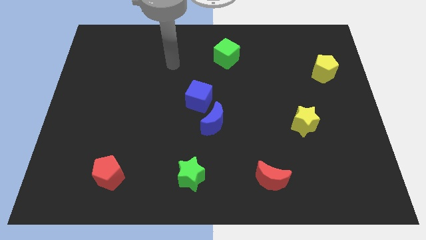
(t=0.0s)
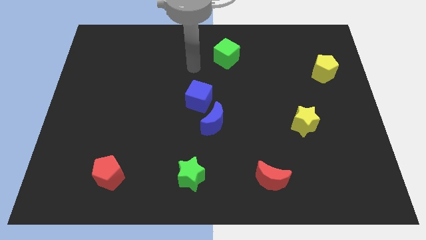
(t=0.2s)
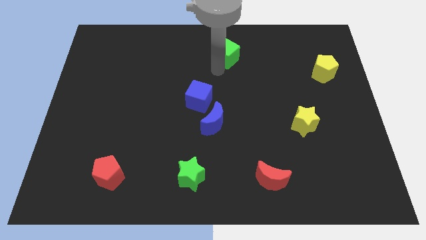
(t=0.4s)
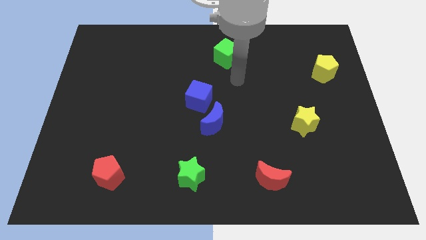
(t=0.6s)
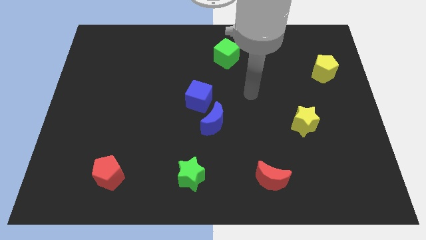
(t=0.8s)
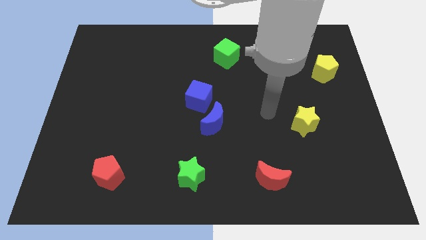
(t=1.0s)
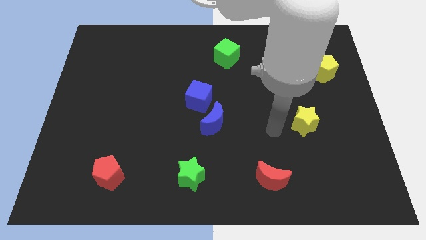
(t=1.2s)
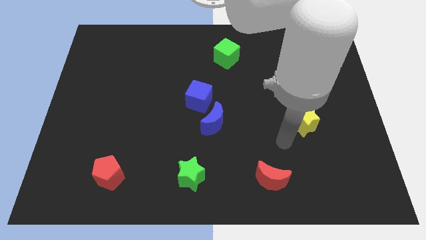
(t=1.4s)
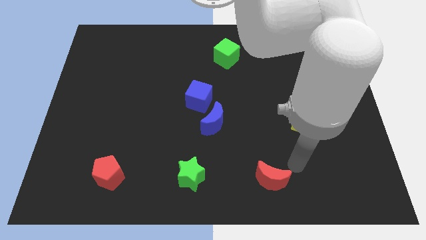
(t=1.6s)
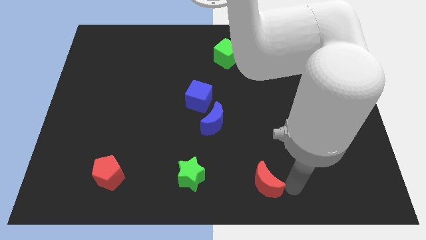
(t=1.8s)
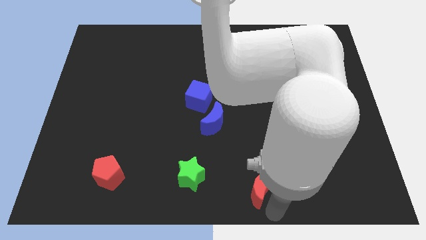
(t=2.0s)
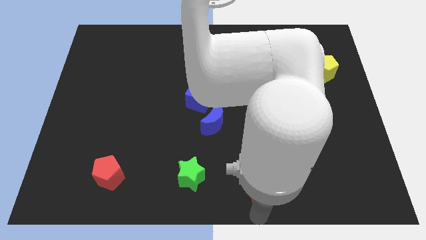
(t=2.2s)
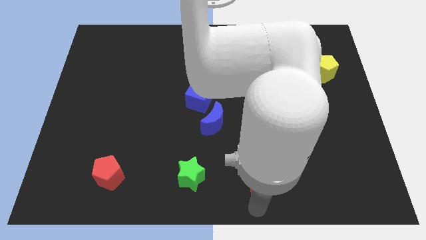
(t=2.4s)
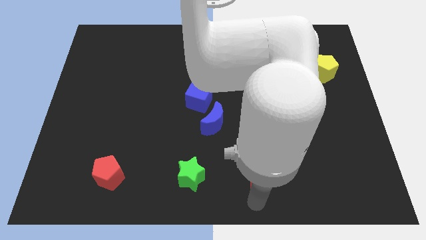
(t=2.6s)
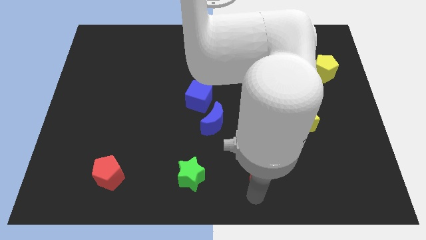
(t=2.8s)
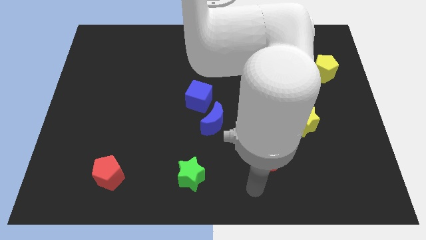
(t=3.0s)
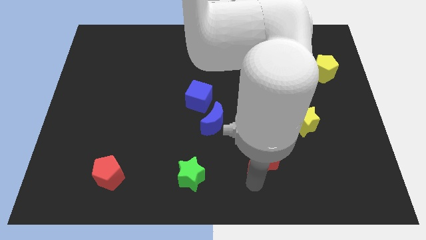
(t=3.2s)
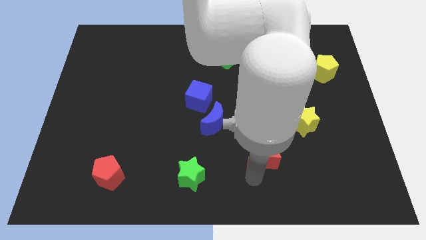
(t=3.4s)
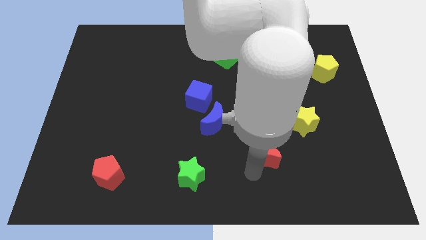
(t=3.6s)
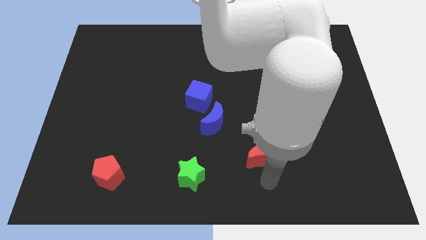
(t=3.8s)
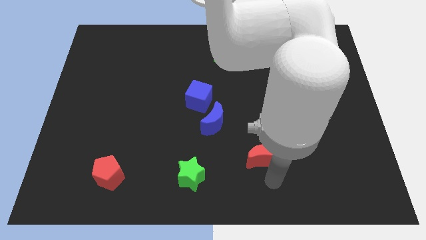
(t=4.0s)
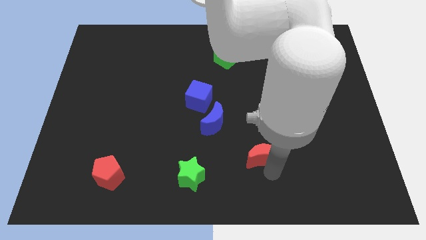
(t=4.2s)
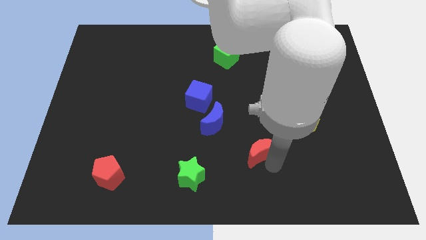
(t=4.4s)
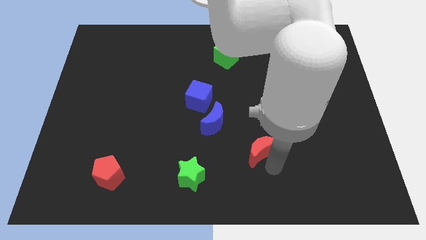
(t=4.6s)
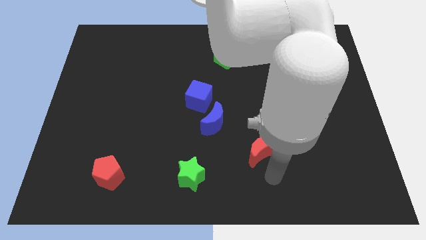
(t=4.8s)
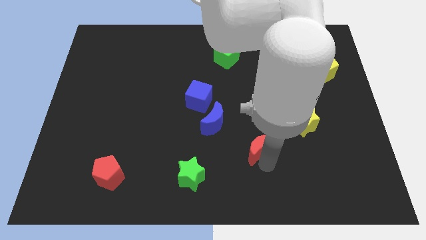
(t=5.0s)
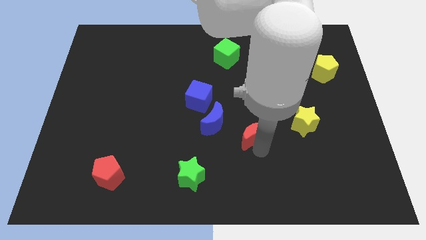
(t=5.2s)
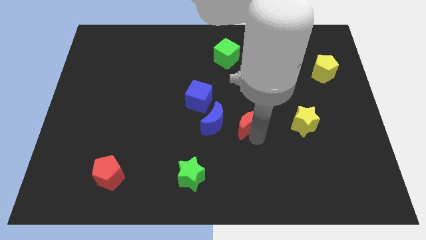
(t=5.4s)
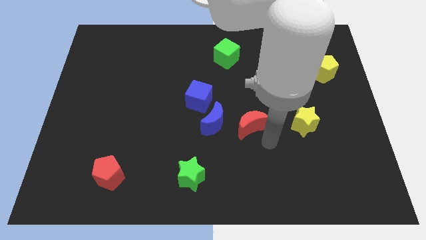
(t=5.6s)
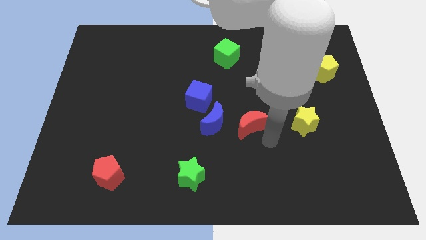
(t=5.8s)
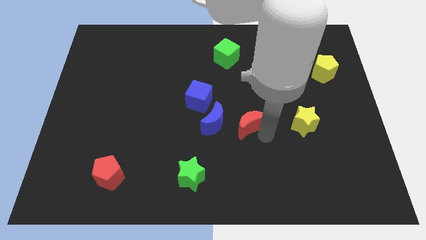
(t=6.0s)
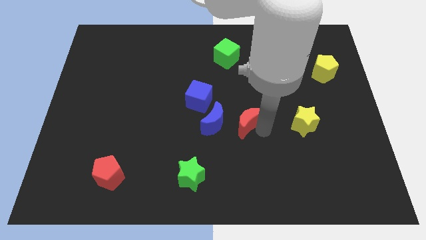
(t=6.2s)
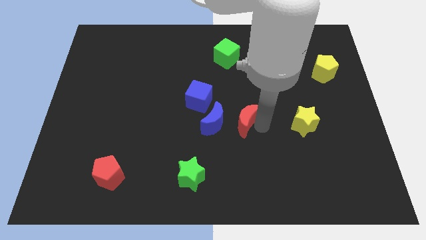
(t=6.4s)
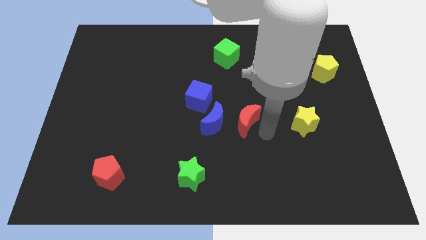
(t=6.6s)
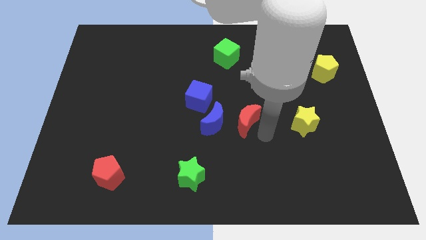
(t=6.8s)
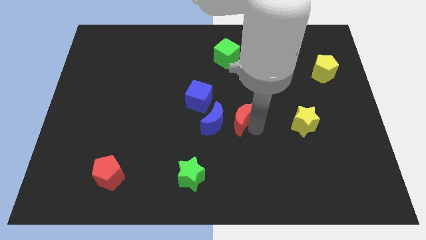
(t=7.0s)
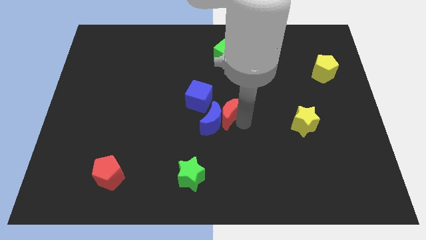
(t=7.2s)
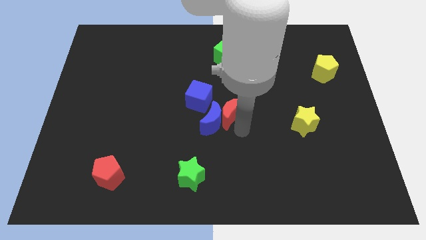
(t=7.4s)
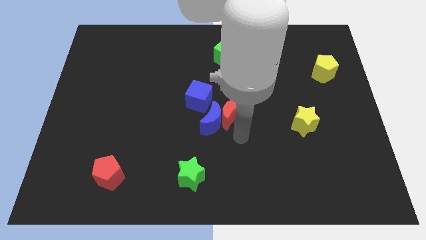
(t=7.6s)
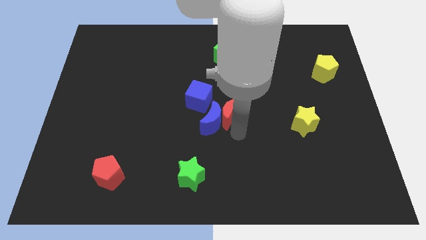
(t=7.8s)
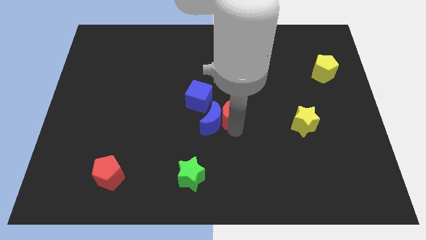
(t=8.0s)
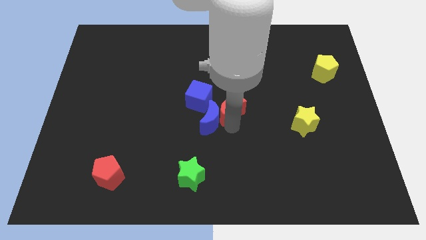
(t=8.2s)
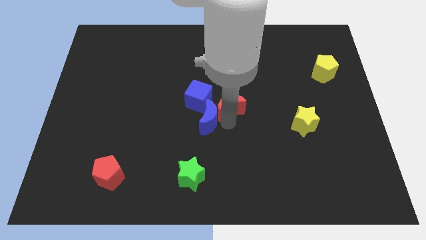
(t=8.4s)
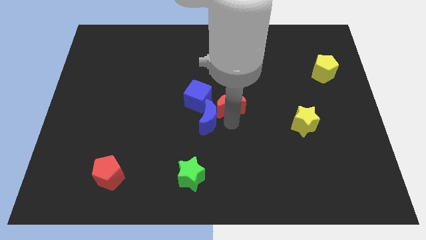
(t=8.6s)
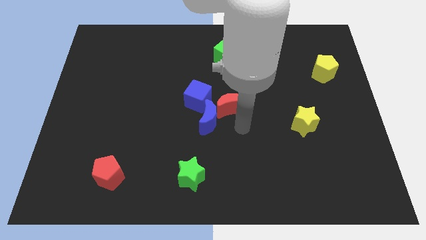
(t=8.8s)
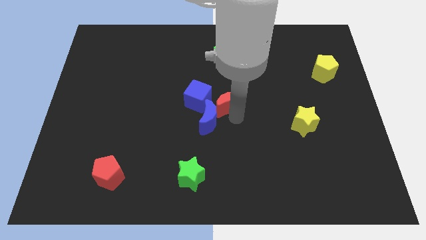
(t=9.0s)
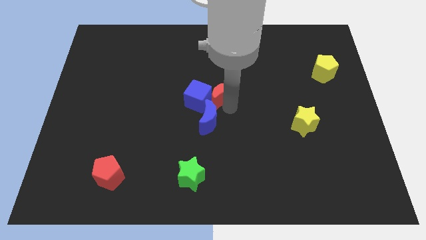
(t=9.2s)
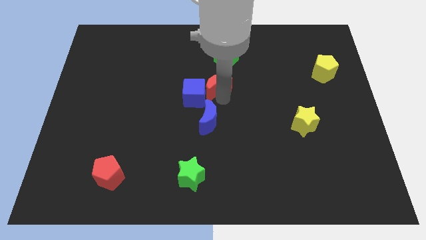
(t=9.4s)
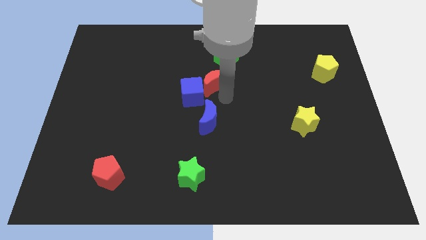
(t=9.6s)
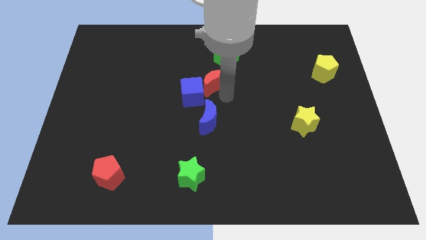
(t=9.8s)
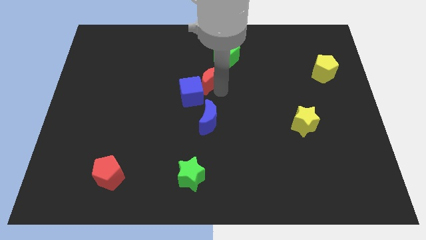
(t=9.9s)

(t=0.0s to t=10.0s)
put the red moon to the top of the blue cube

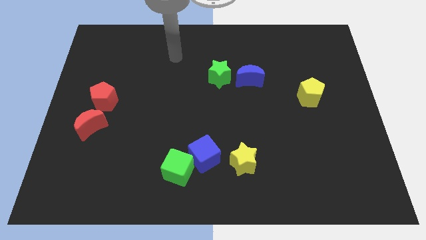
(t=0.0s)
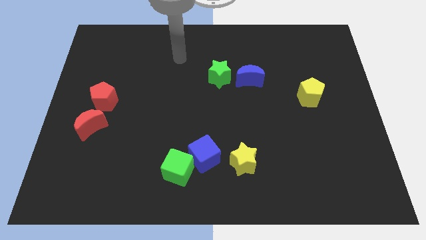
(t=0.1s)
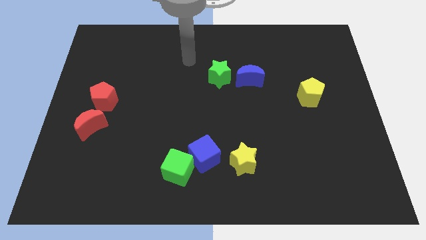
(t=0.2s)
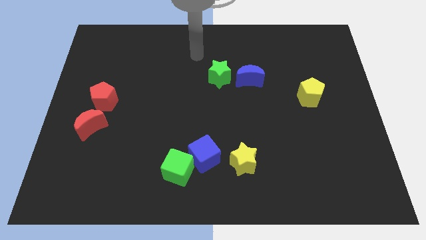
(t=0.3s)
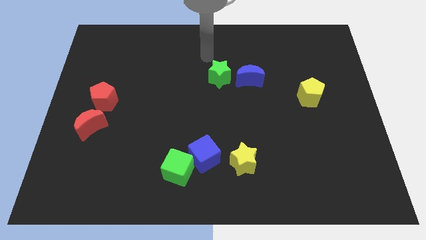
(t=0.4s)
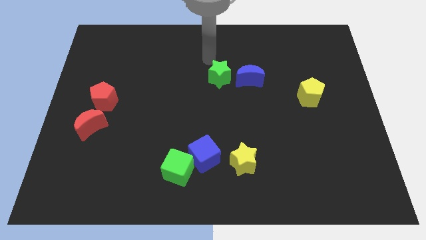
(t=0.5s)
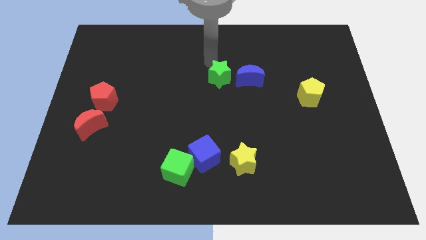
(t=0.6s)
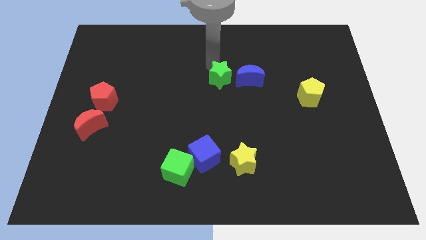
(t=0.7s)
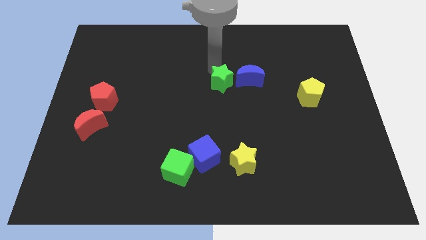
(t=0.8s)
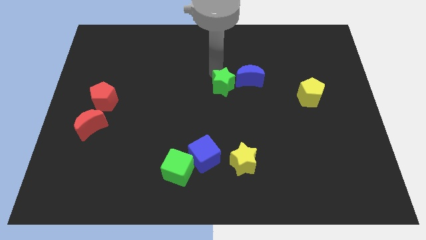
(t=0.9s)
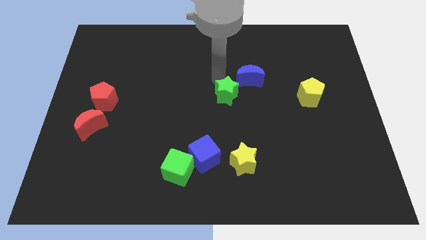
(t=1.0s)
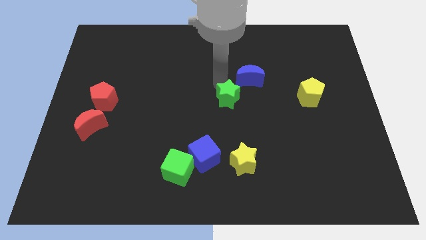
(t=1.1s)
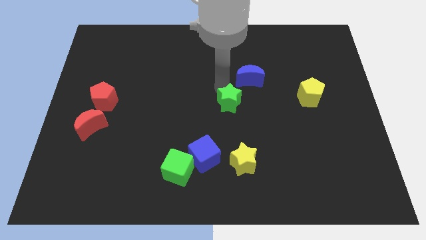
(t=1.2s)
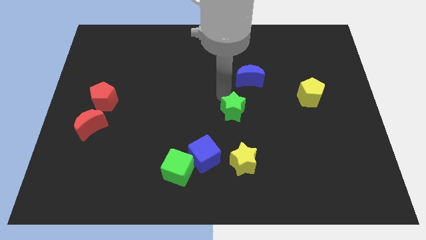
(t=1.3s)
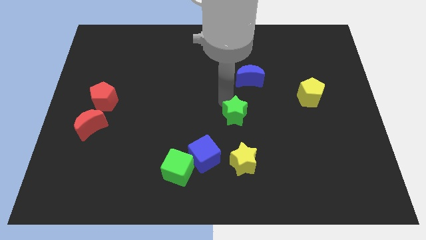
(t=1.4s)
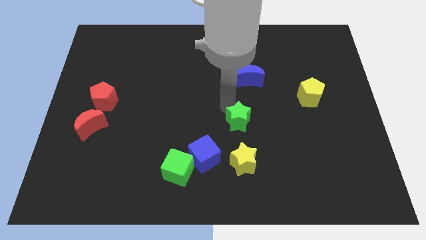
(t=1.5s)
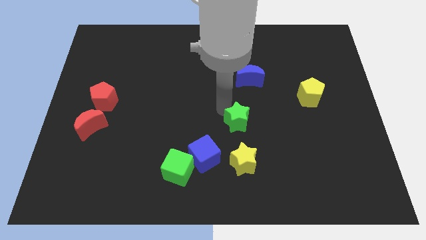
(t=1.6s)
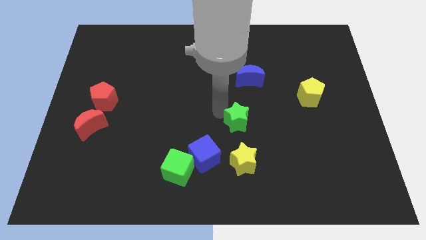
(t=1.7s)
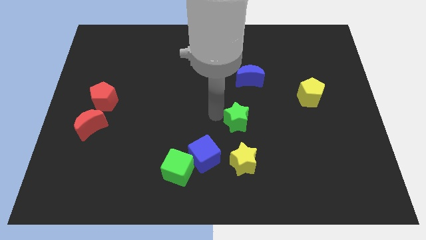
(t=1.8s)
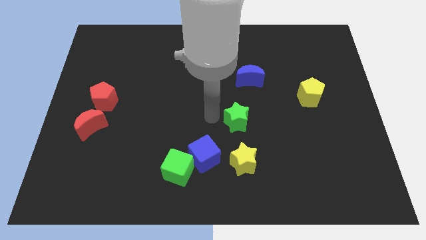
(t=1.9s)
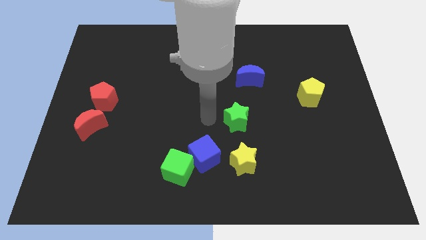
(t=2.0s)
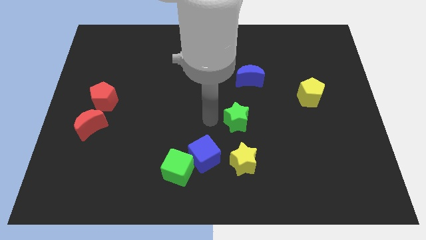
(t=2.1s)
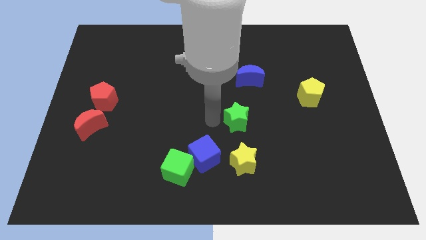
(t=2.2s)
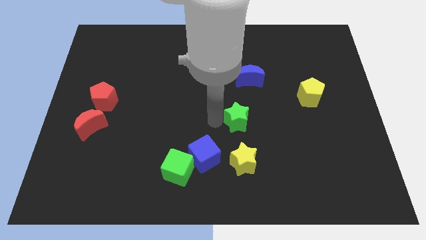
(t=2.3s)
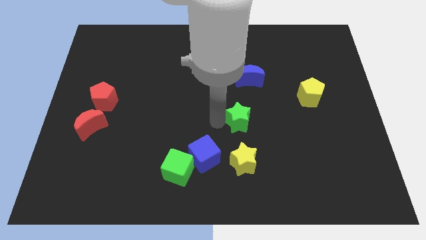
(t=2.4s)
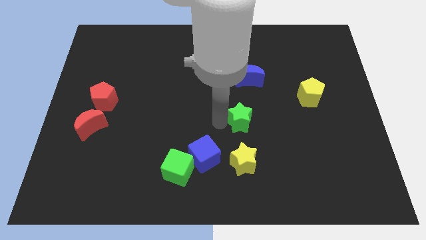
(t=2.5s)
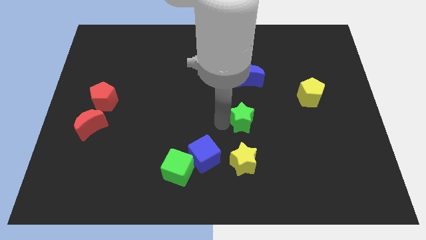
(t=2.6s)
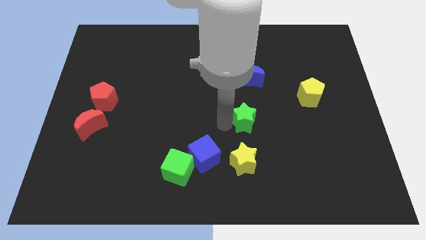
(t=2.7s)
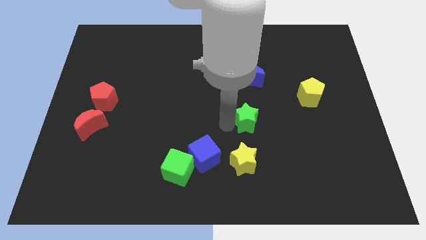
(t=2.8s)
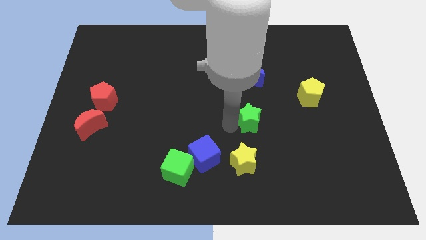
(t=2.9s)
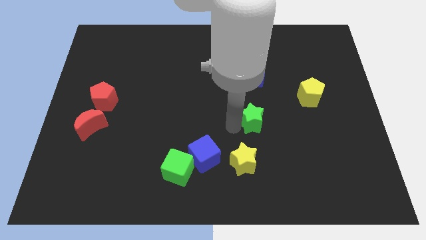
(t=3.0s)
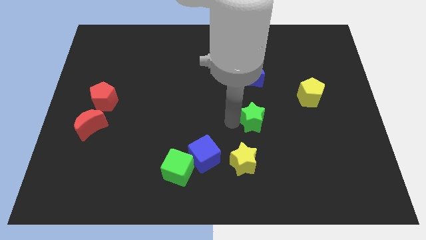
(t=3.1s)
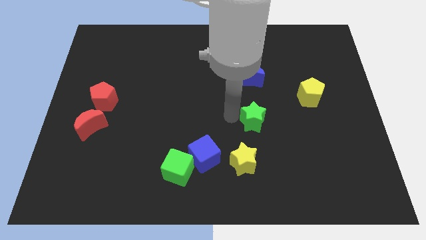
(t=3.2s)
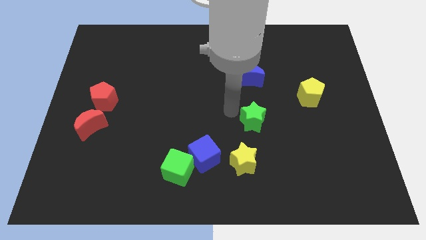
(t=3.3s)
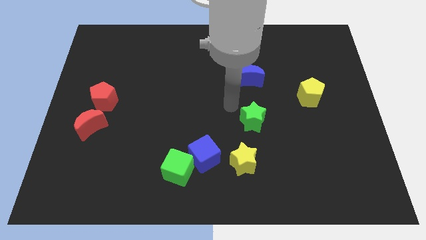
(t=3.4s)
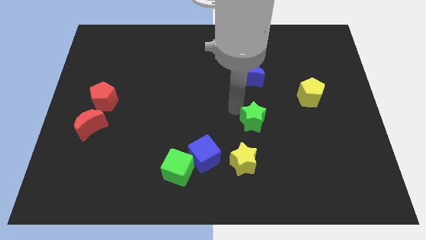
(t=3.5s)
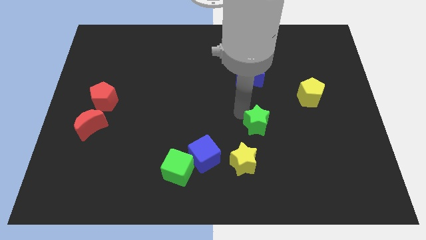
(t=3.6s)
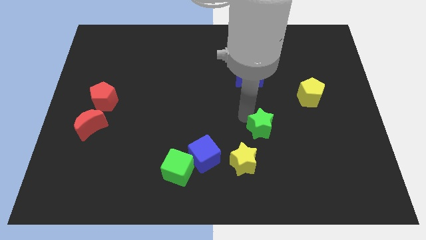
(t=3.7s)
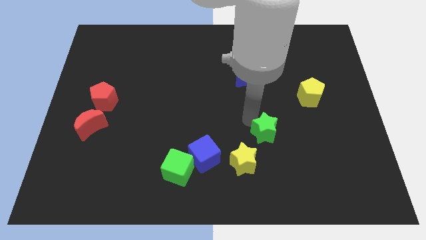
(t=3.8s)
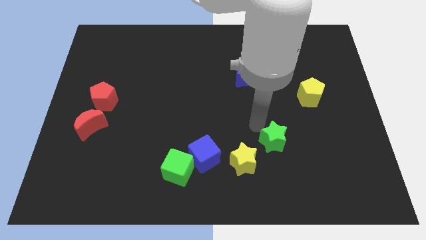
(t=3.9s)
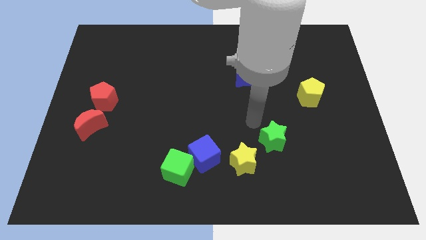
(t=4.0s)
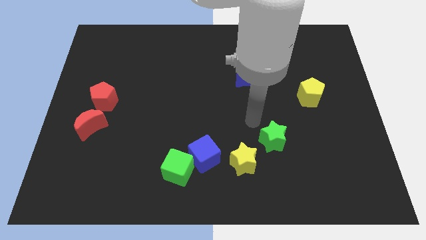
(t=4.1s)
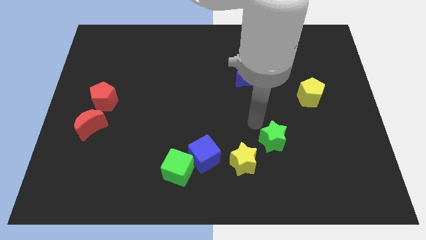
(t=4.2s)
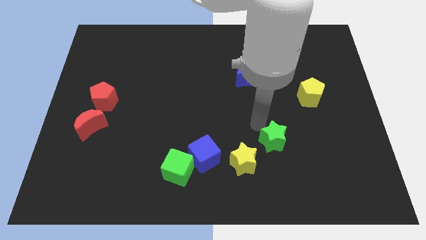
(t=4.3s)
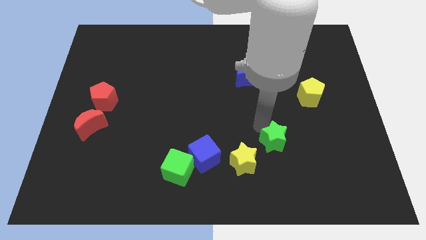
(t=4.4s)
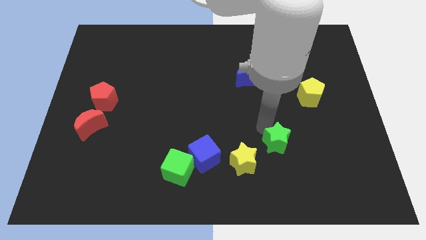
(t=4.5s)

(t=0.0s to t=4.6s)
push the green star to the right of the yellow star
